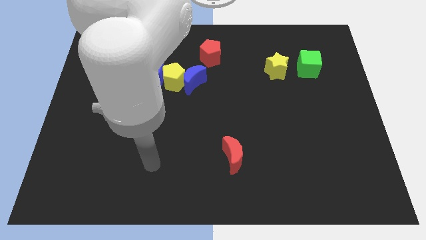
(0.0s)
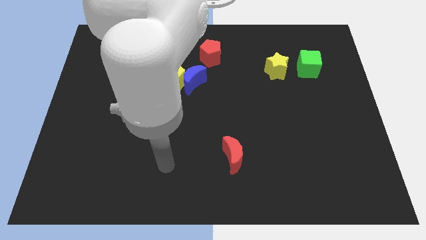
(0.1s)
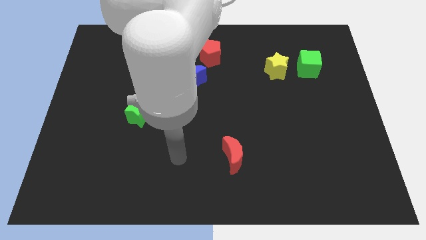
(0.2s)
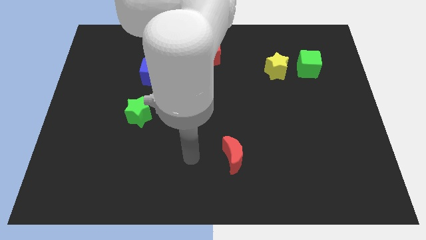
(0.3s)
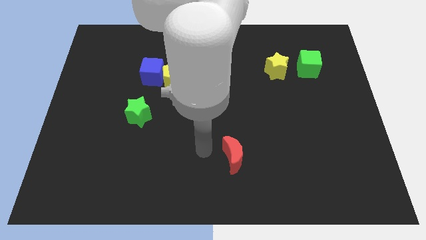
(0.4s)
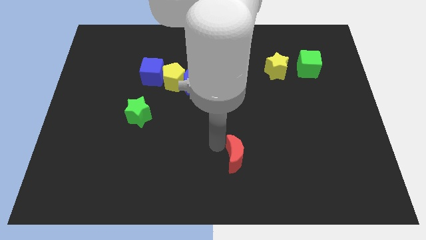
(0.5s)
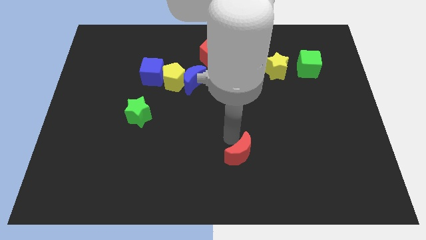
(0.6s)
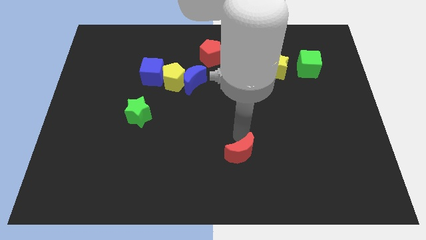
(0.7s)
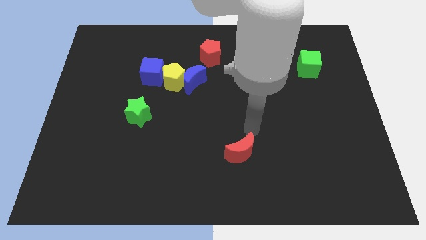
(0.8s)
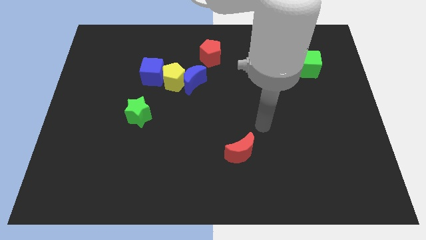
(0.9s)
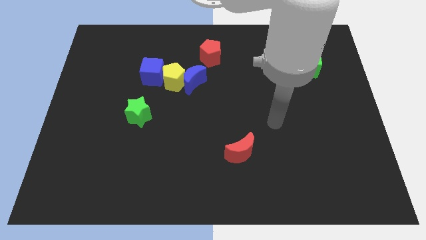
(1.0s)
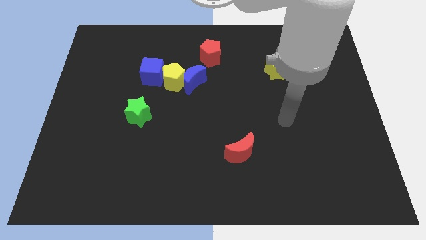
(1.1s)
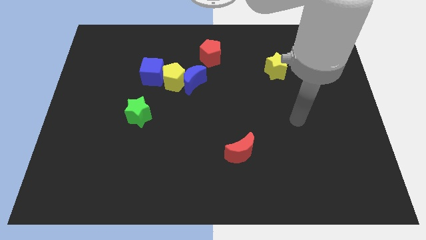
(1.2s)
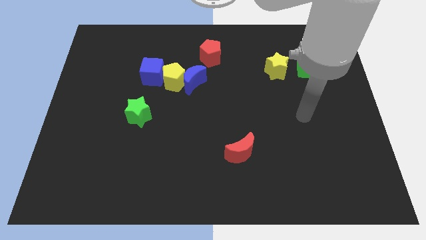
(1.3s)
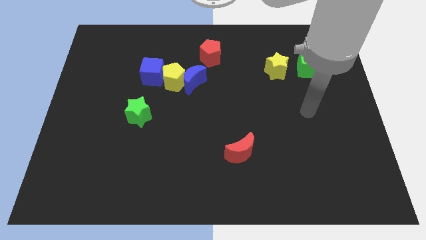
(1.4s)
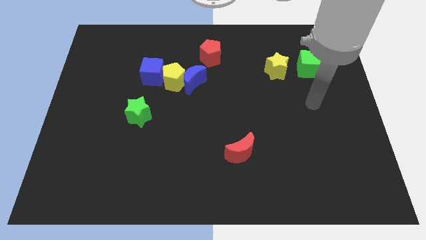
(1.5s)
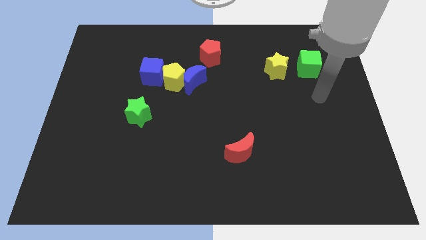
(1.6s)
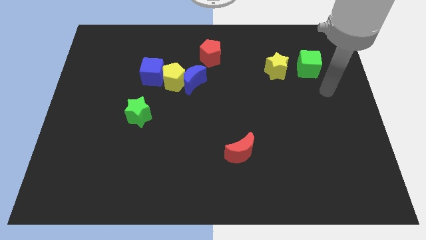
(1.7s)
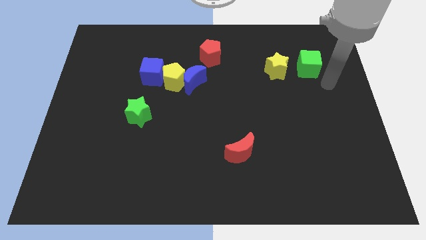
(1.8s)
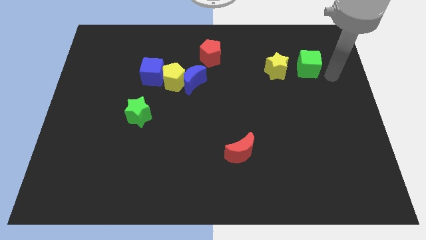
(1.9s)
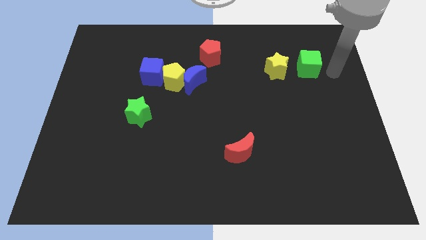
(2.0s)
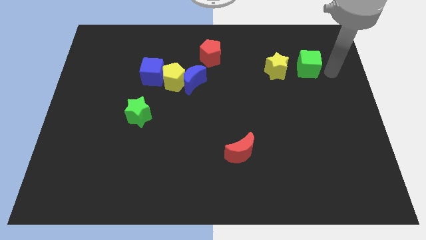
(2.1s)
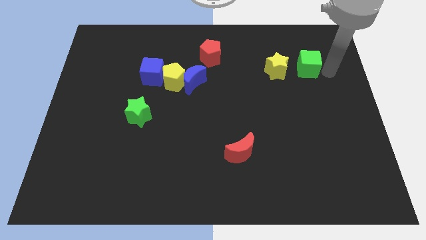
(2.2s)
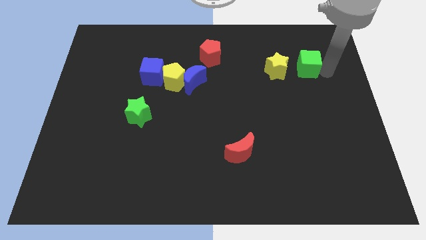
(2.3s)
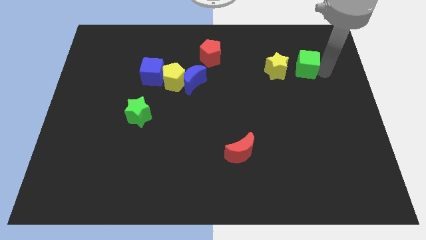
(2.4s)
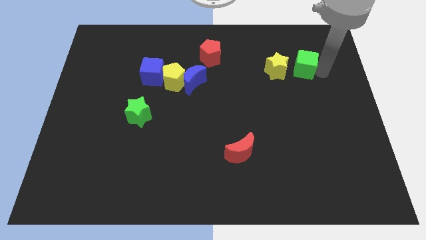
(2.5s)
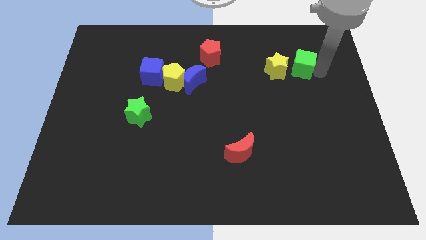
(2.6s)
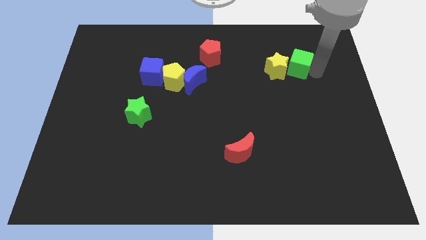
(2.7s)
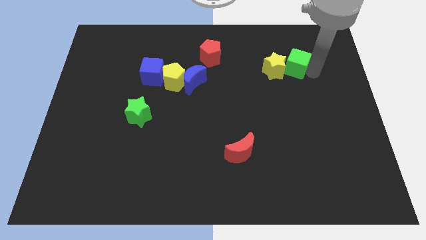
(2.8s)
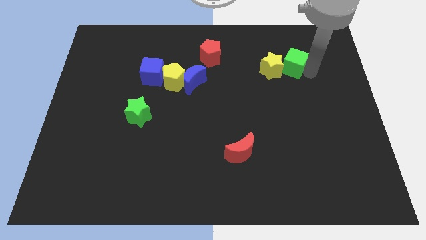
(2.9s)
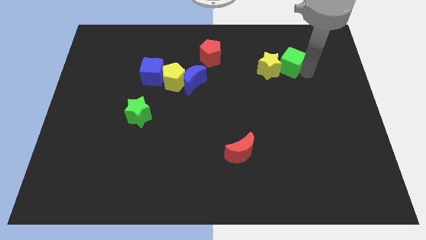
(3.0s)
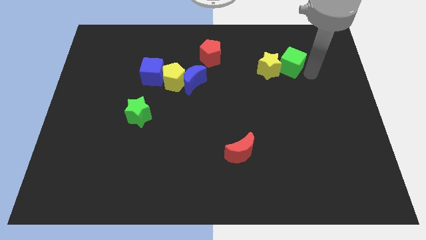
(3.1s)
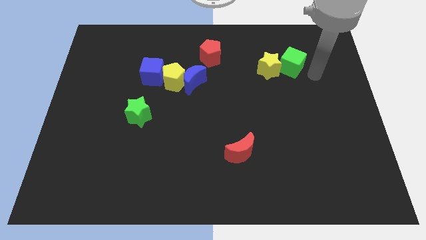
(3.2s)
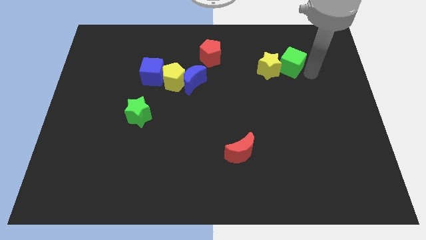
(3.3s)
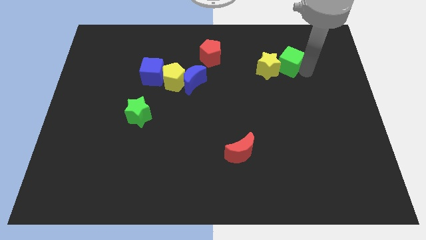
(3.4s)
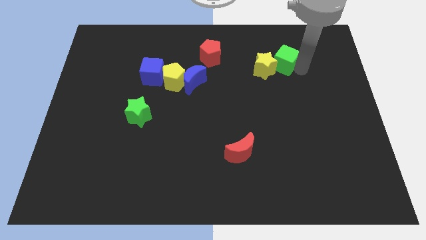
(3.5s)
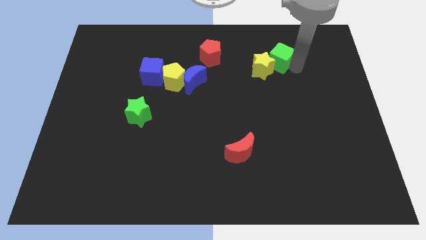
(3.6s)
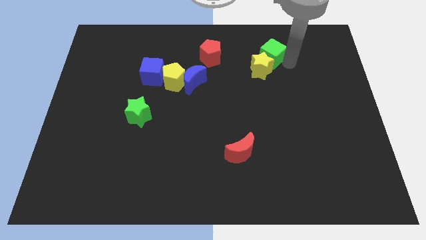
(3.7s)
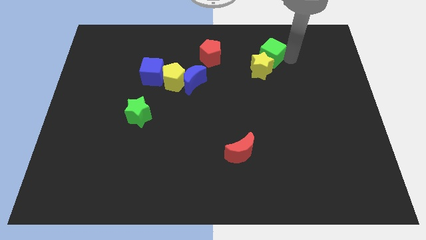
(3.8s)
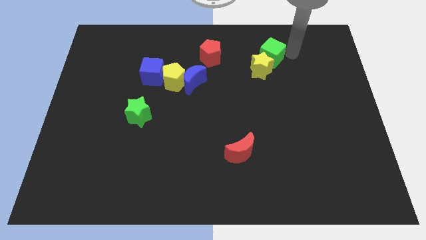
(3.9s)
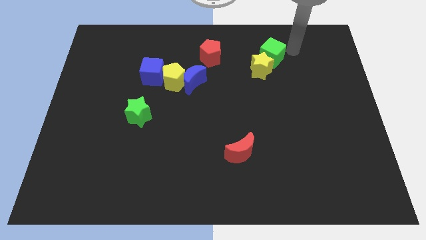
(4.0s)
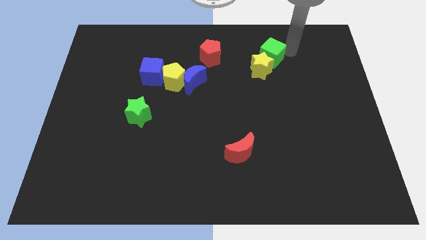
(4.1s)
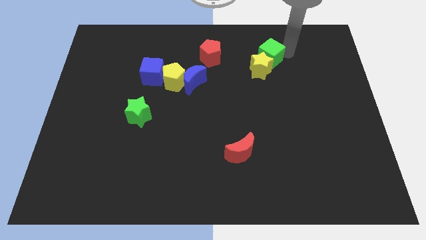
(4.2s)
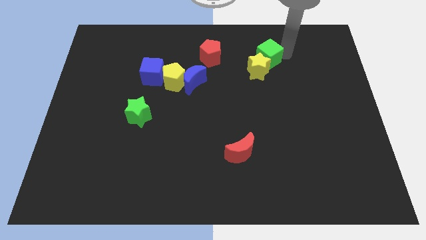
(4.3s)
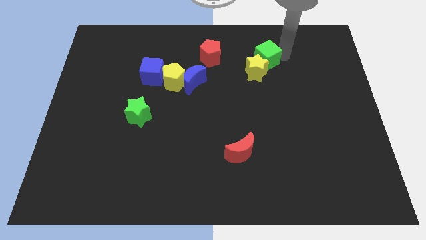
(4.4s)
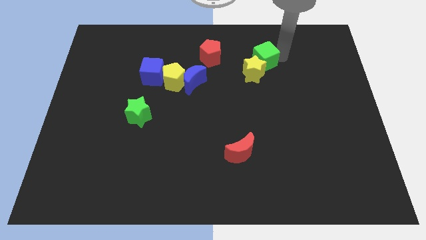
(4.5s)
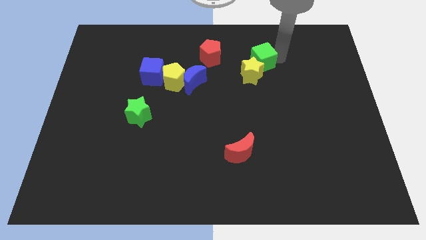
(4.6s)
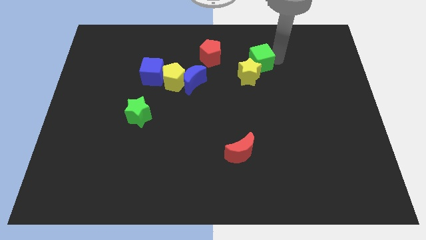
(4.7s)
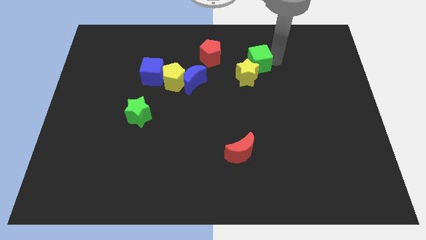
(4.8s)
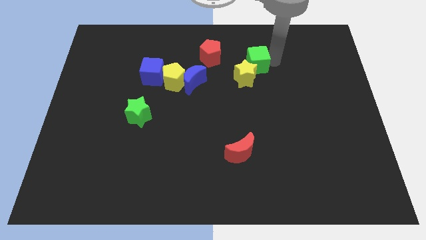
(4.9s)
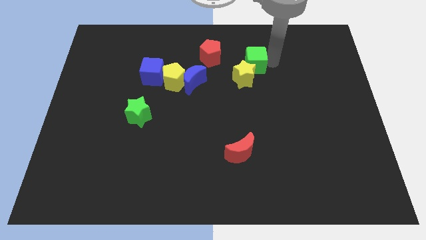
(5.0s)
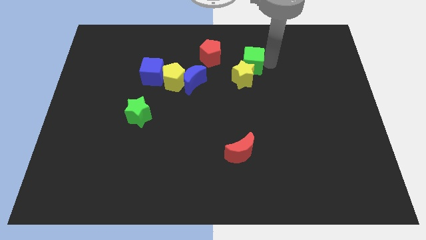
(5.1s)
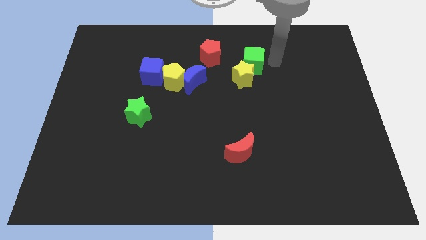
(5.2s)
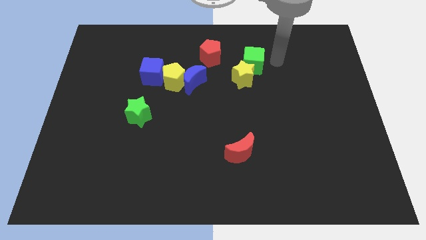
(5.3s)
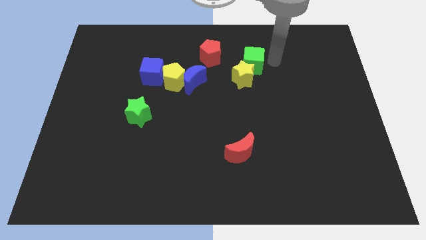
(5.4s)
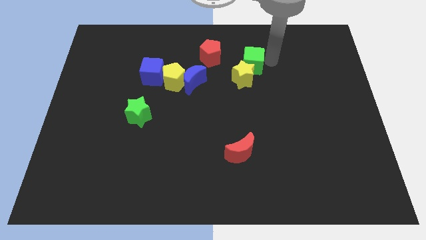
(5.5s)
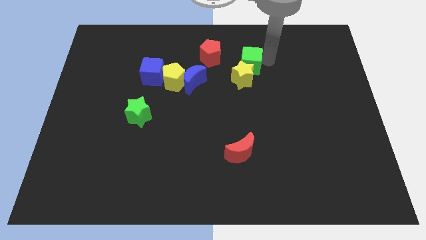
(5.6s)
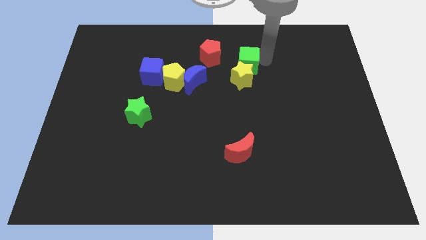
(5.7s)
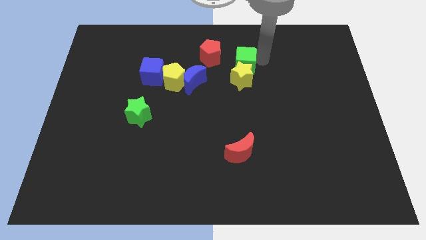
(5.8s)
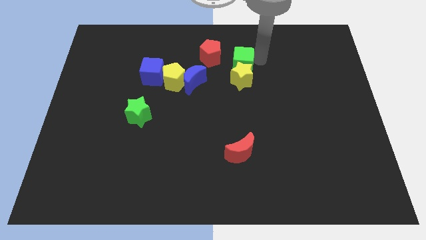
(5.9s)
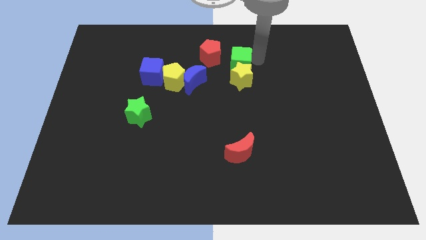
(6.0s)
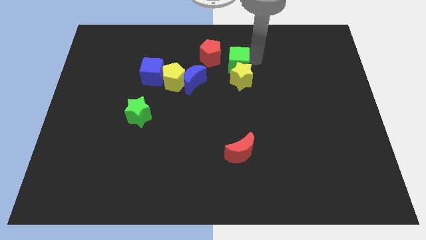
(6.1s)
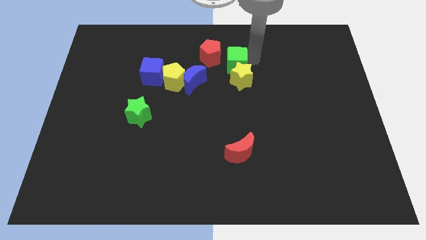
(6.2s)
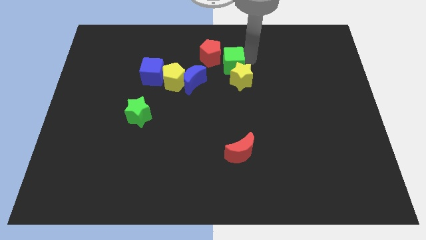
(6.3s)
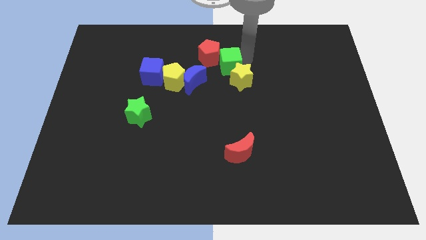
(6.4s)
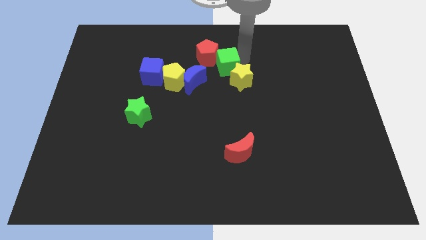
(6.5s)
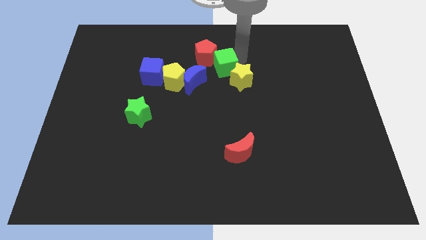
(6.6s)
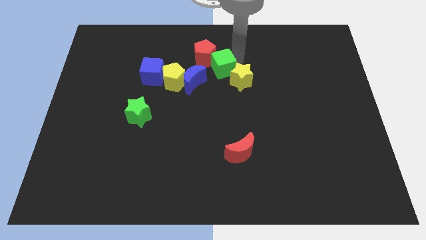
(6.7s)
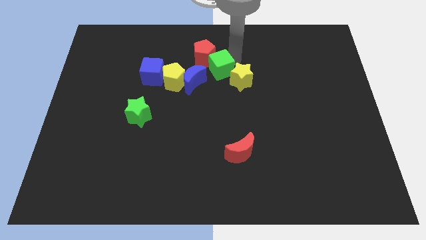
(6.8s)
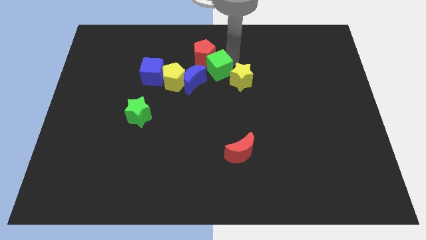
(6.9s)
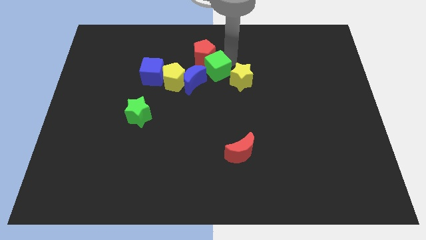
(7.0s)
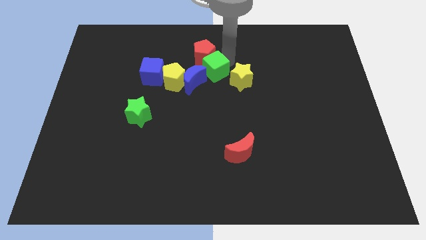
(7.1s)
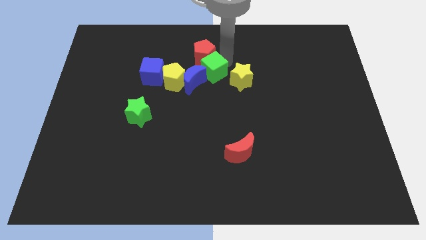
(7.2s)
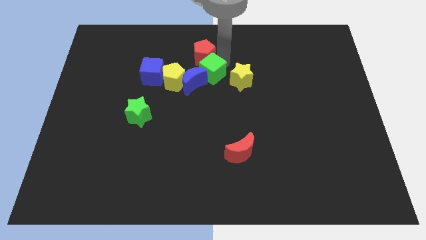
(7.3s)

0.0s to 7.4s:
push the green cube close to the blue moon

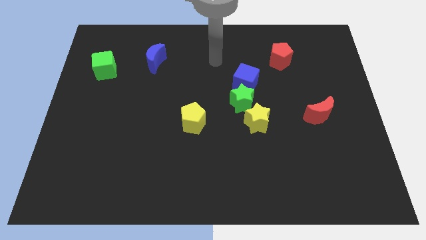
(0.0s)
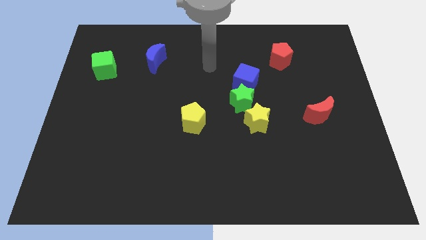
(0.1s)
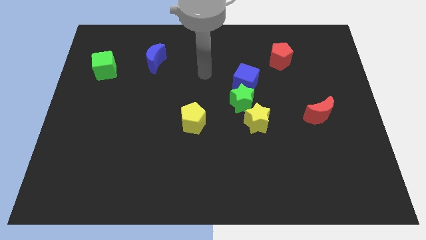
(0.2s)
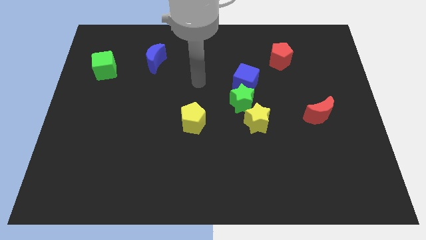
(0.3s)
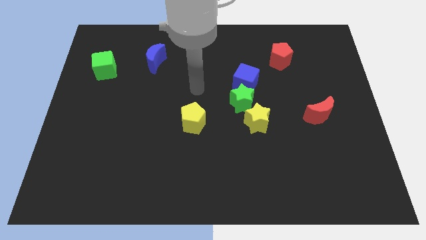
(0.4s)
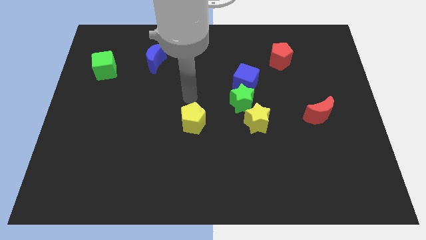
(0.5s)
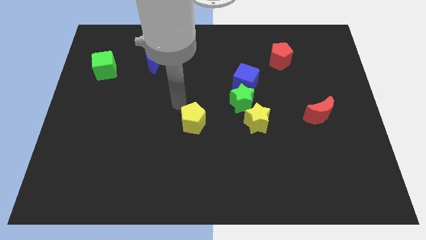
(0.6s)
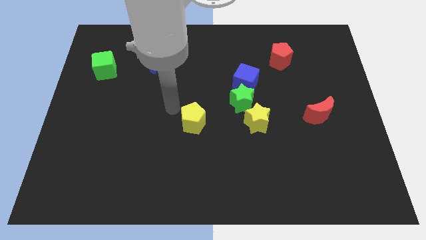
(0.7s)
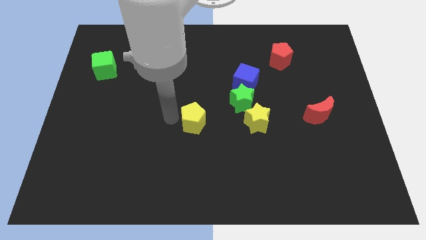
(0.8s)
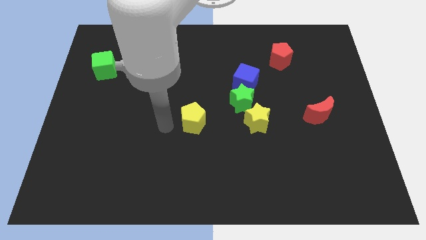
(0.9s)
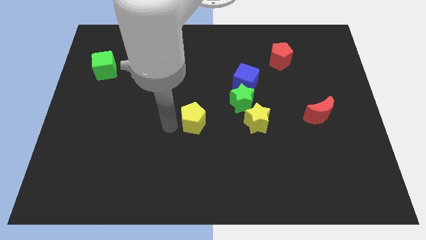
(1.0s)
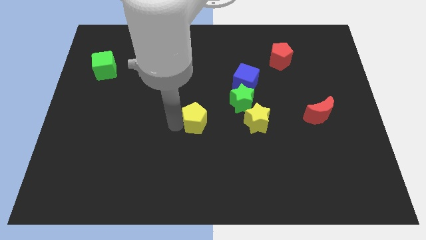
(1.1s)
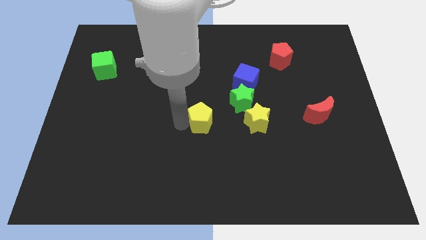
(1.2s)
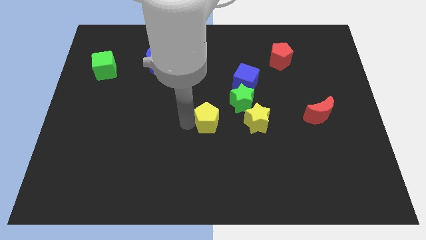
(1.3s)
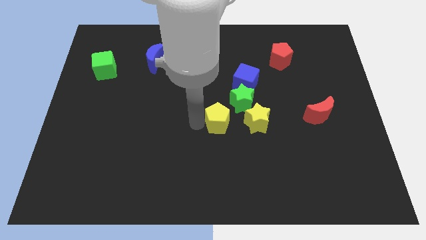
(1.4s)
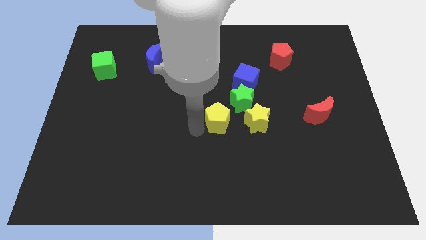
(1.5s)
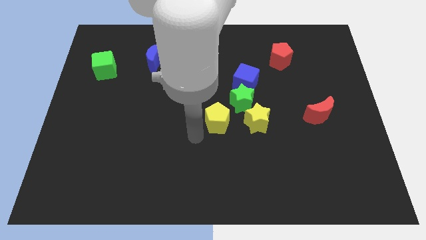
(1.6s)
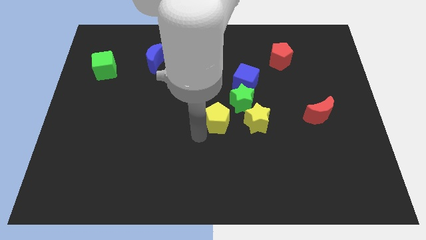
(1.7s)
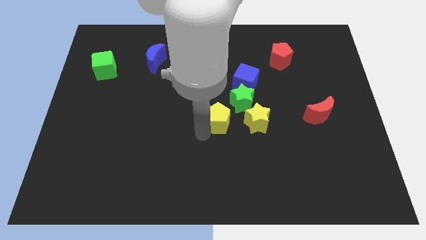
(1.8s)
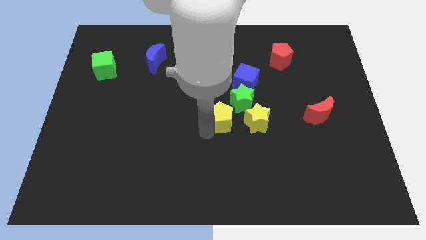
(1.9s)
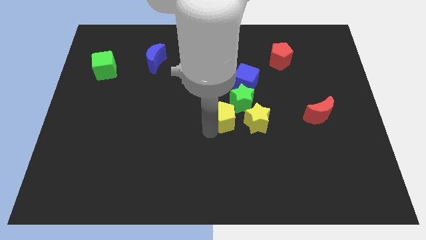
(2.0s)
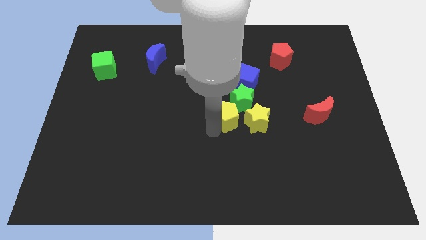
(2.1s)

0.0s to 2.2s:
push the yellow pentagon next to the green star
